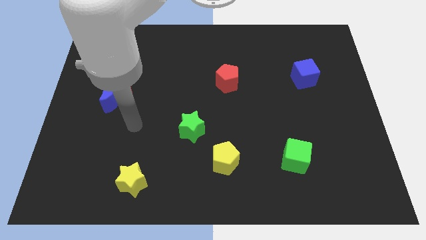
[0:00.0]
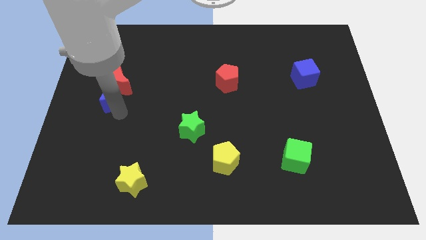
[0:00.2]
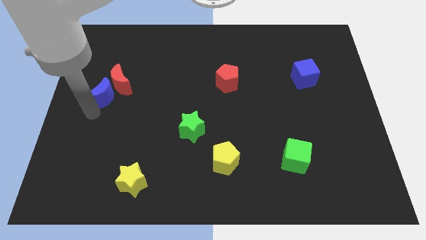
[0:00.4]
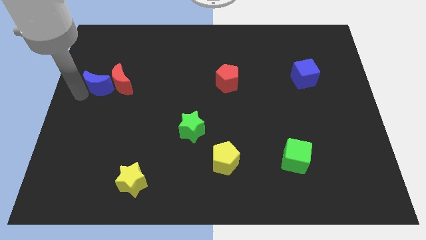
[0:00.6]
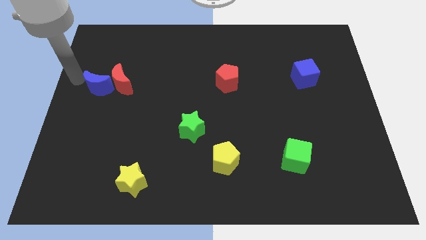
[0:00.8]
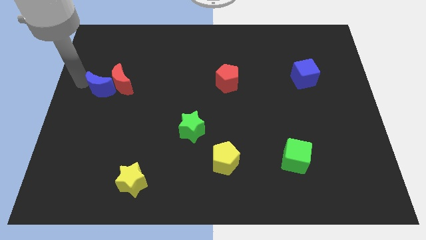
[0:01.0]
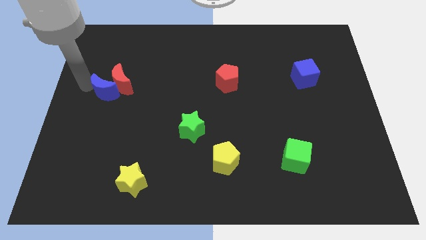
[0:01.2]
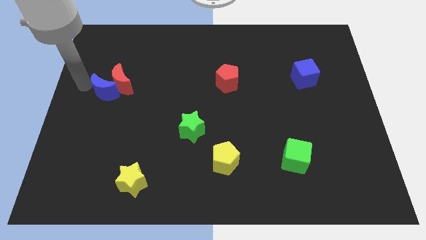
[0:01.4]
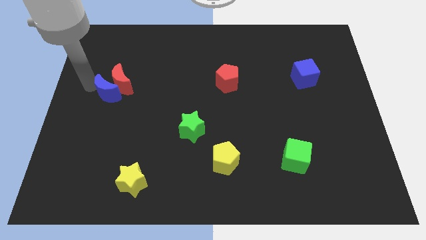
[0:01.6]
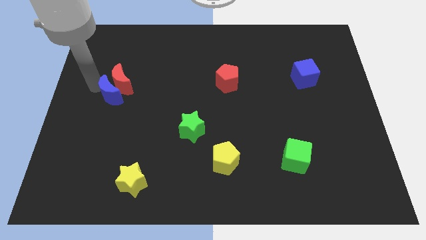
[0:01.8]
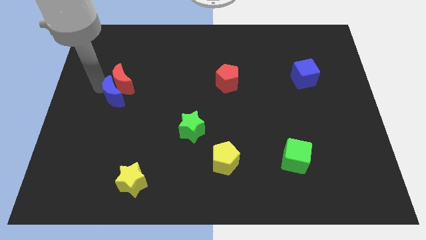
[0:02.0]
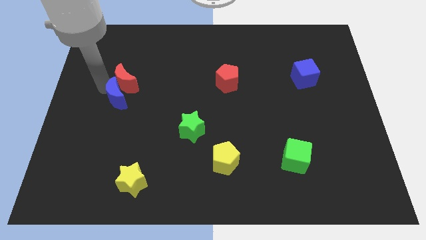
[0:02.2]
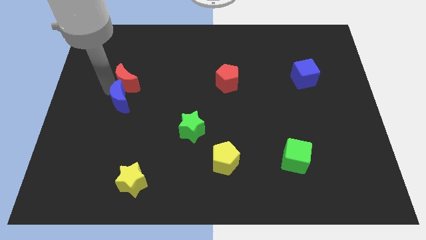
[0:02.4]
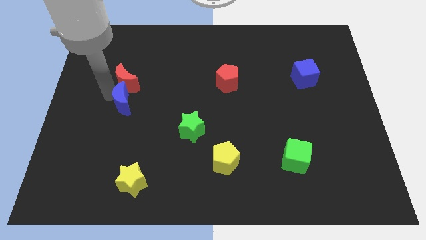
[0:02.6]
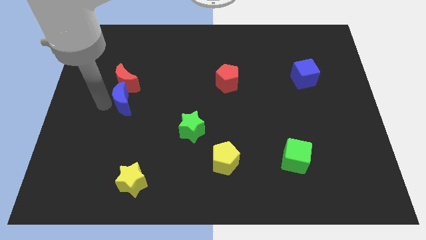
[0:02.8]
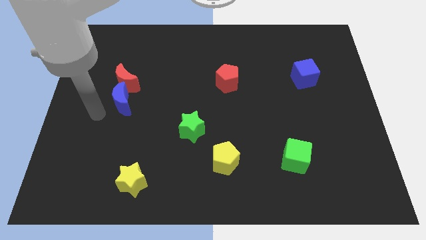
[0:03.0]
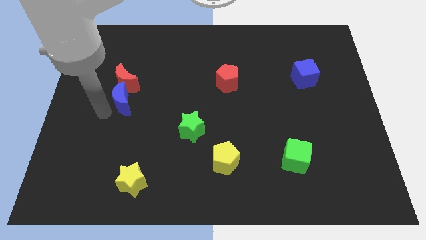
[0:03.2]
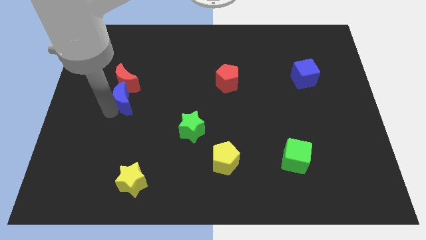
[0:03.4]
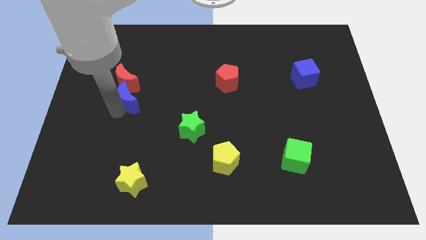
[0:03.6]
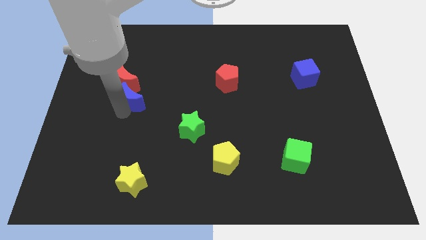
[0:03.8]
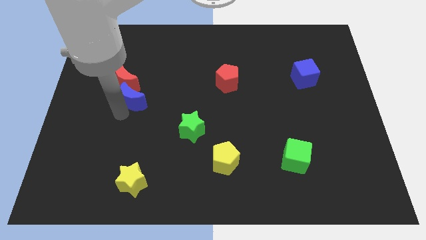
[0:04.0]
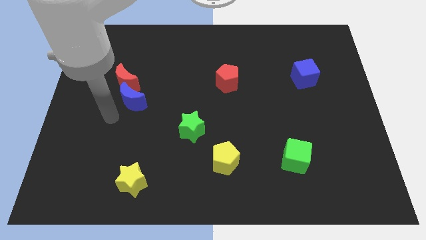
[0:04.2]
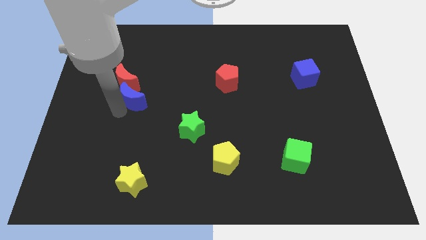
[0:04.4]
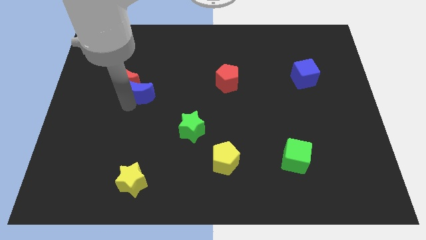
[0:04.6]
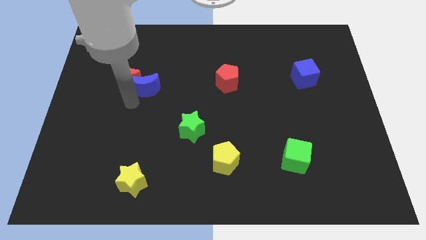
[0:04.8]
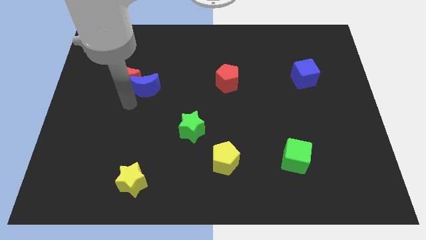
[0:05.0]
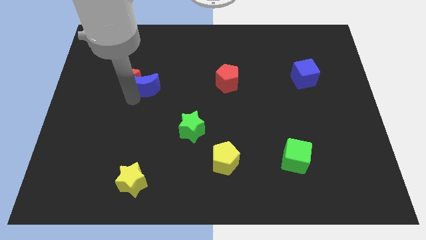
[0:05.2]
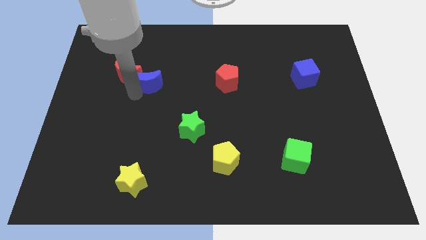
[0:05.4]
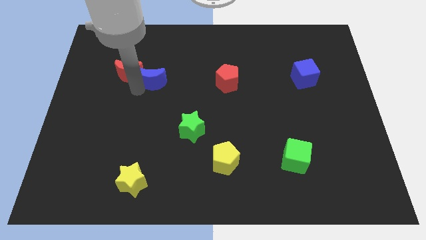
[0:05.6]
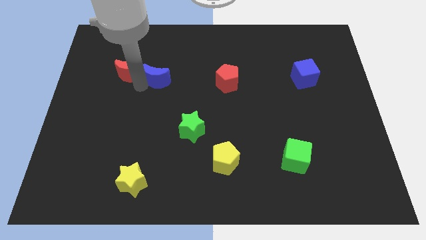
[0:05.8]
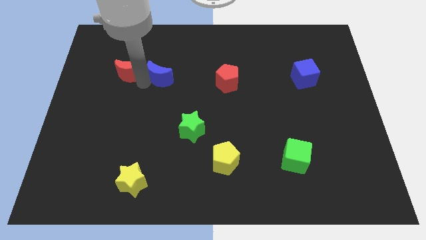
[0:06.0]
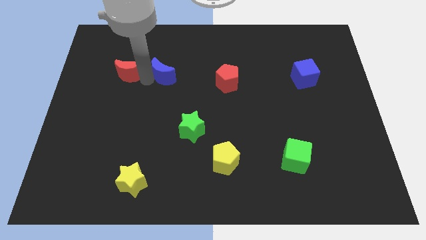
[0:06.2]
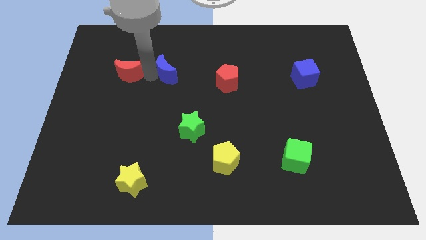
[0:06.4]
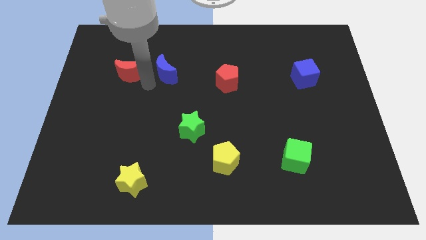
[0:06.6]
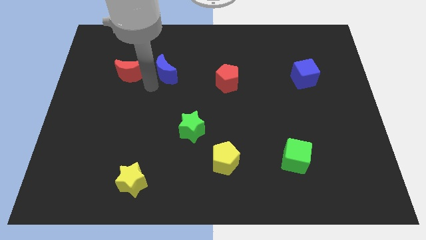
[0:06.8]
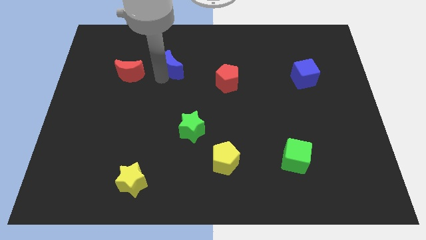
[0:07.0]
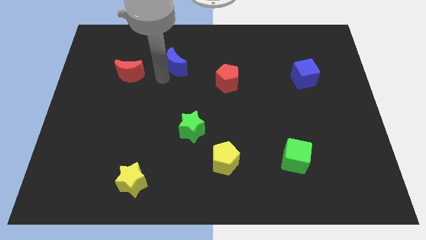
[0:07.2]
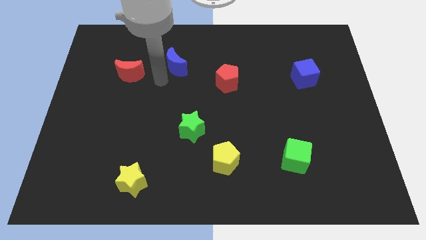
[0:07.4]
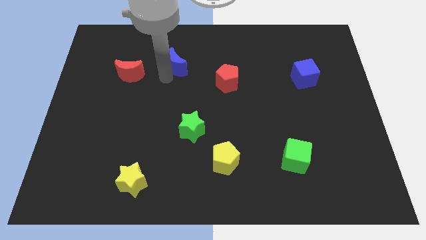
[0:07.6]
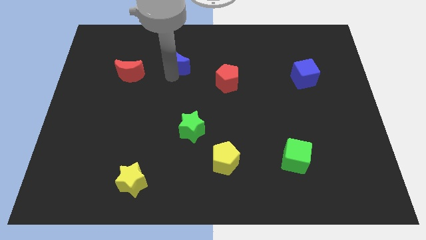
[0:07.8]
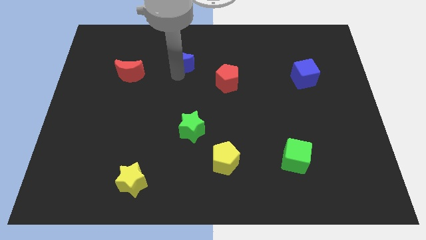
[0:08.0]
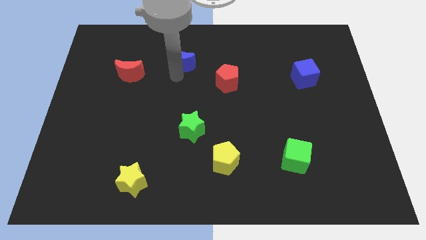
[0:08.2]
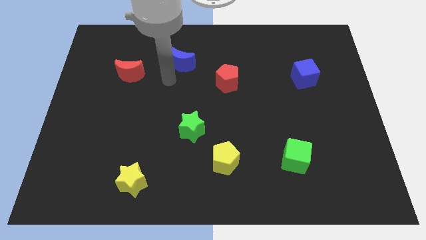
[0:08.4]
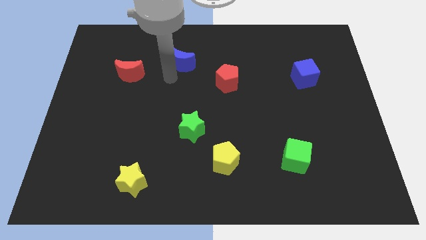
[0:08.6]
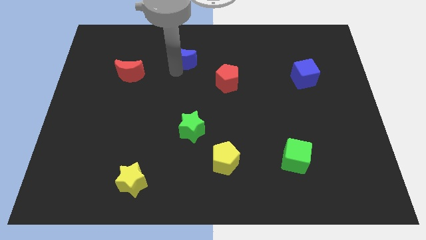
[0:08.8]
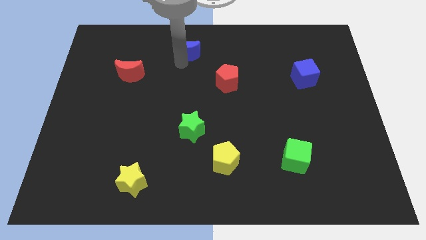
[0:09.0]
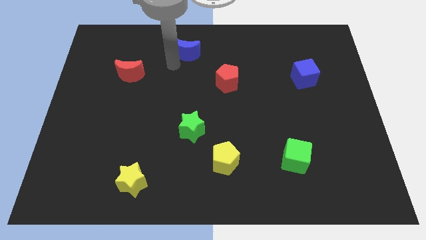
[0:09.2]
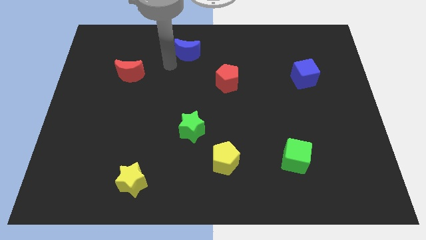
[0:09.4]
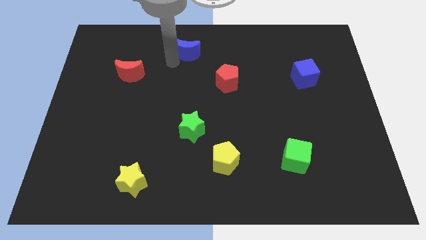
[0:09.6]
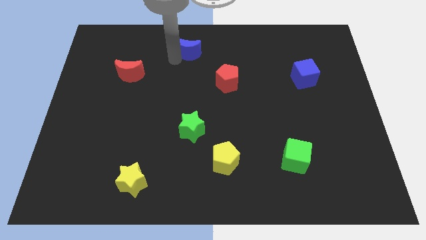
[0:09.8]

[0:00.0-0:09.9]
slide the blue moon to the top side
